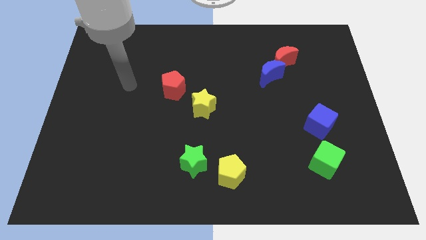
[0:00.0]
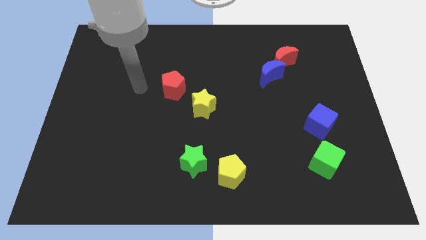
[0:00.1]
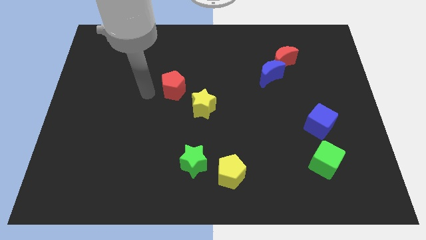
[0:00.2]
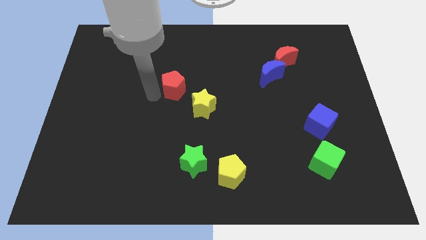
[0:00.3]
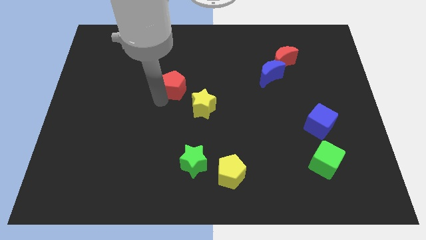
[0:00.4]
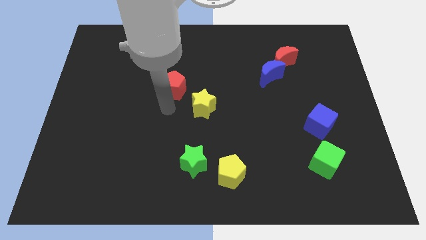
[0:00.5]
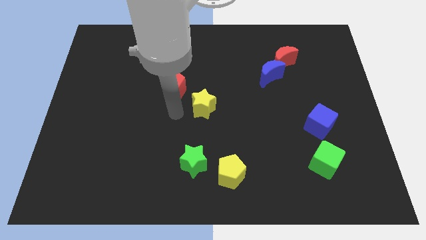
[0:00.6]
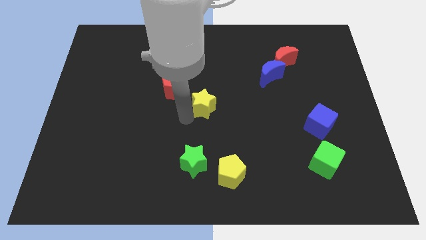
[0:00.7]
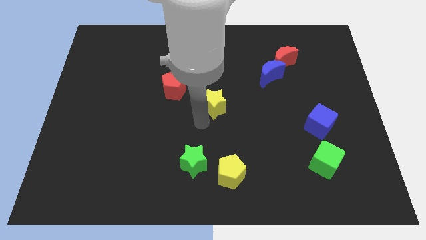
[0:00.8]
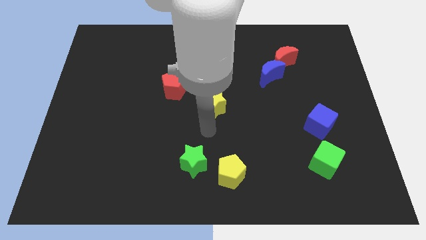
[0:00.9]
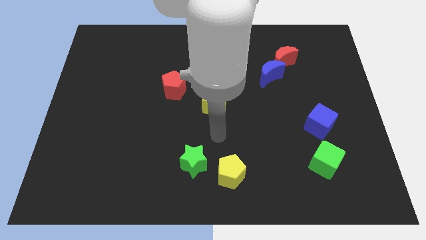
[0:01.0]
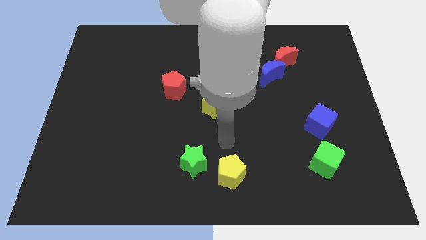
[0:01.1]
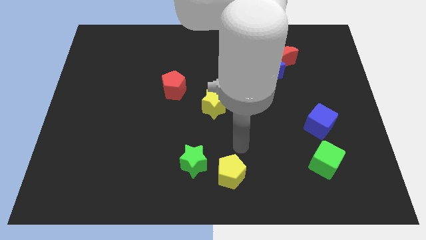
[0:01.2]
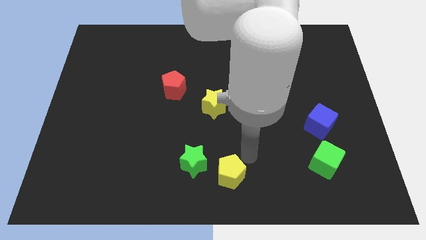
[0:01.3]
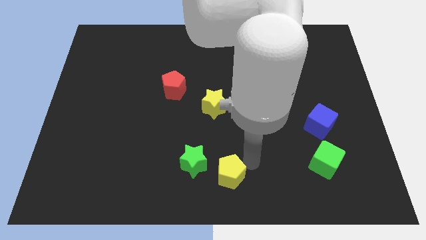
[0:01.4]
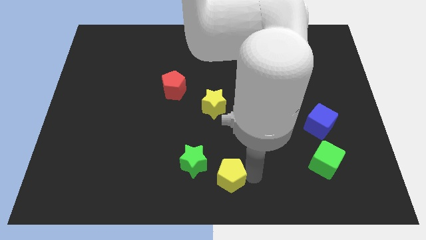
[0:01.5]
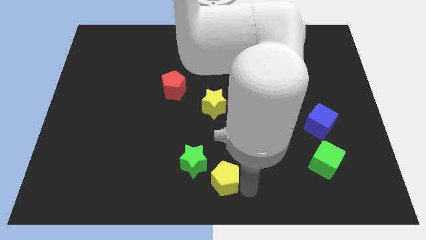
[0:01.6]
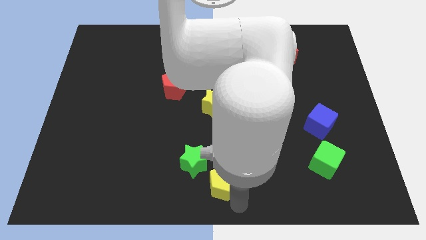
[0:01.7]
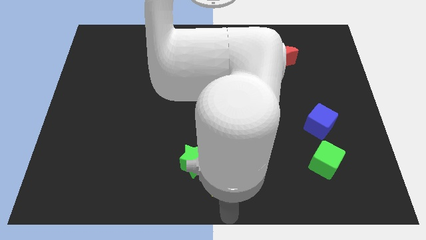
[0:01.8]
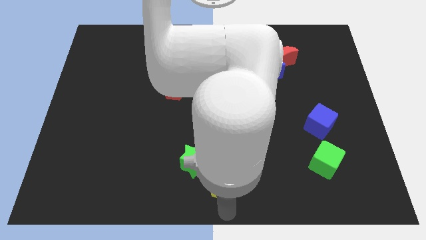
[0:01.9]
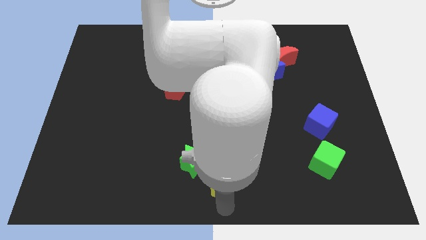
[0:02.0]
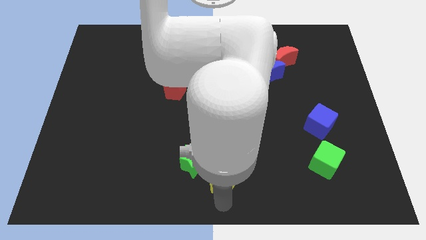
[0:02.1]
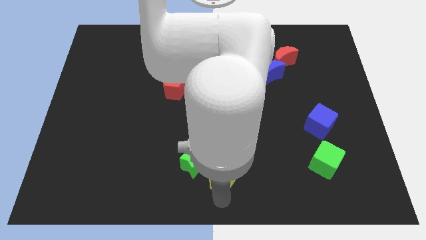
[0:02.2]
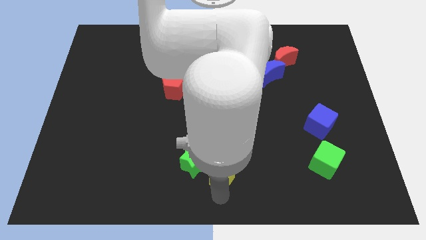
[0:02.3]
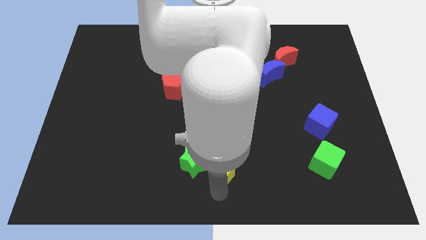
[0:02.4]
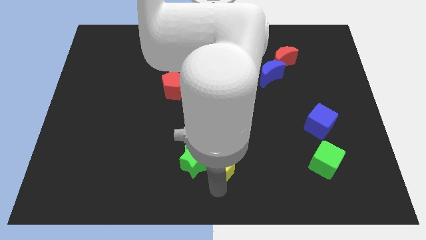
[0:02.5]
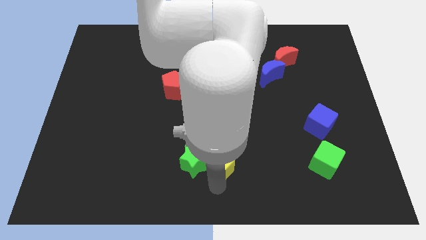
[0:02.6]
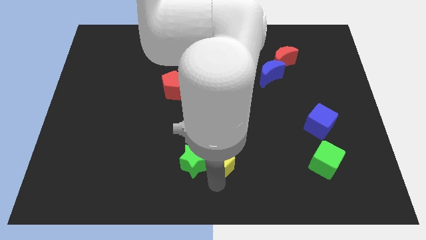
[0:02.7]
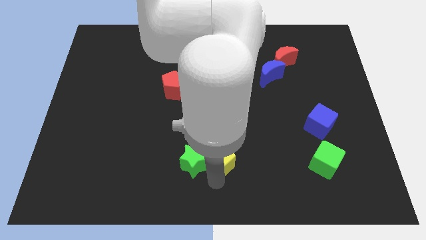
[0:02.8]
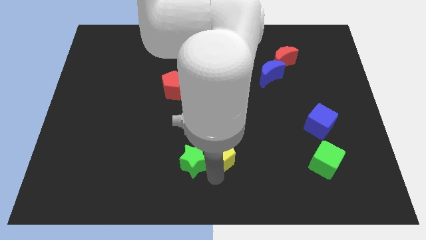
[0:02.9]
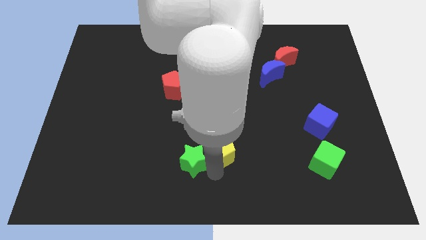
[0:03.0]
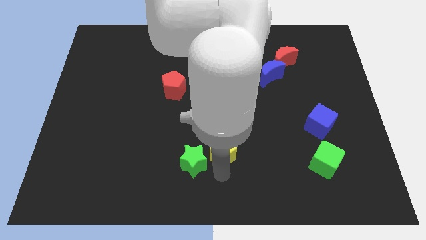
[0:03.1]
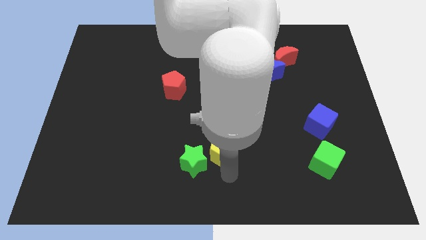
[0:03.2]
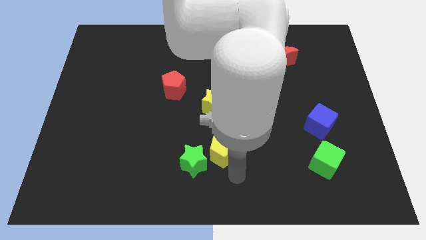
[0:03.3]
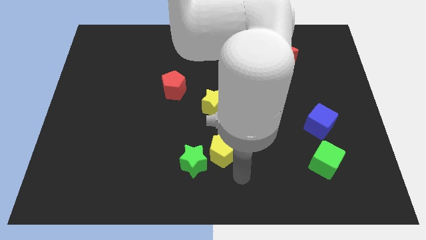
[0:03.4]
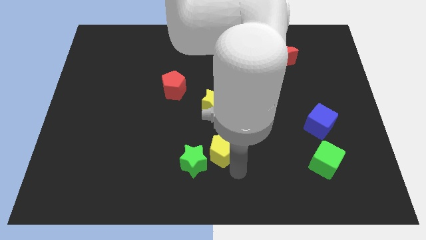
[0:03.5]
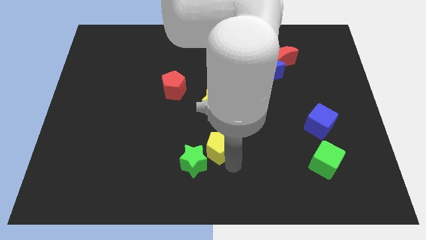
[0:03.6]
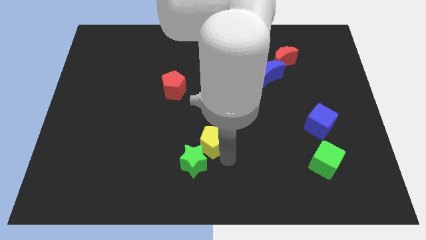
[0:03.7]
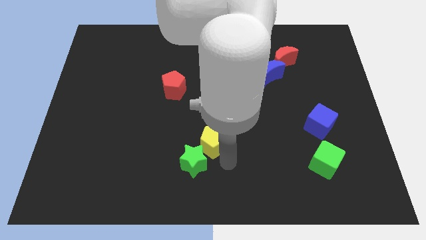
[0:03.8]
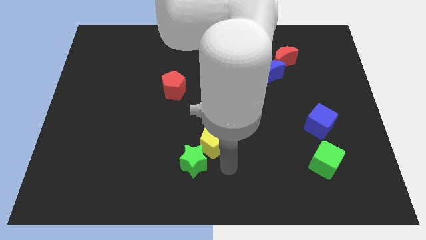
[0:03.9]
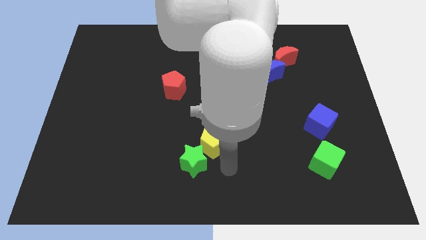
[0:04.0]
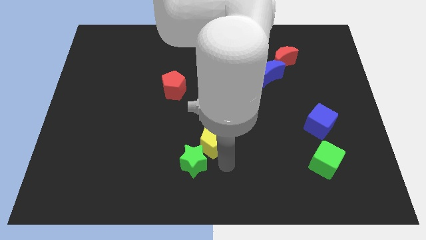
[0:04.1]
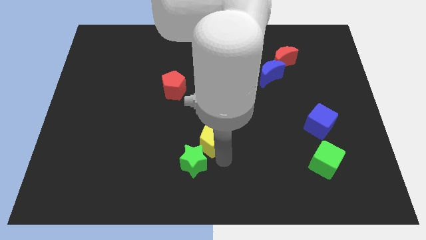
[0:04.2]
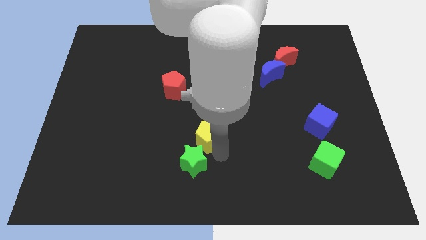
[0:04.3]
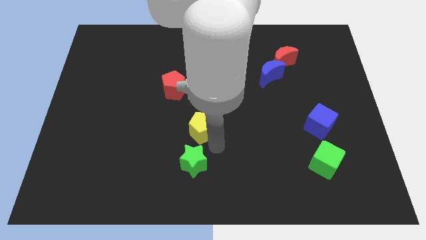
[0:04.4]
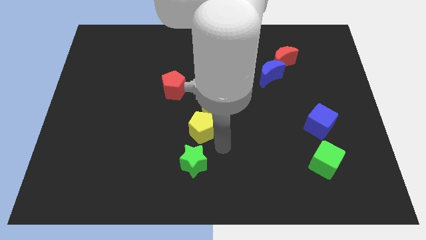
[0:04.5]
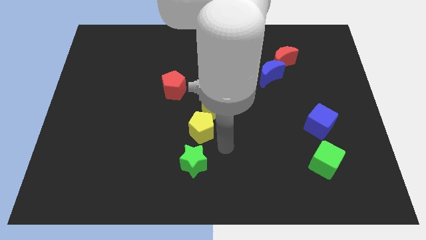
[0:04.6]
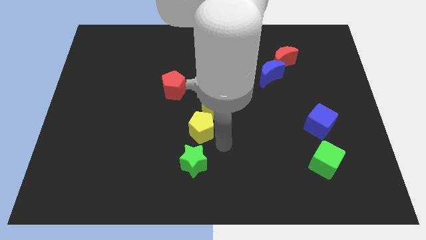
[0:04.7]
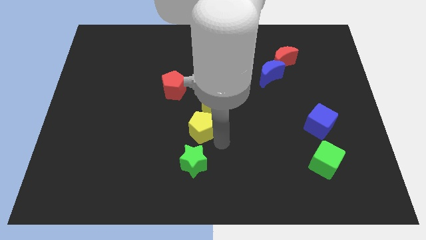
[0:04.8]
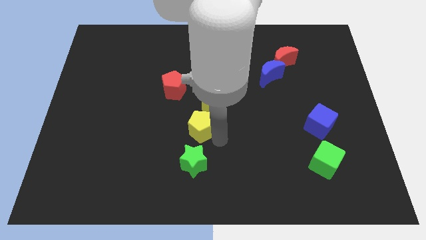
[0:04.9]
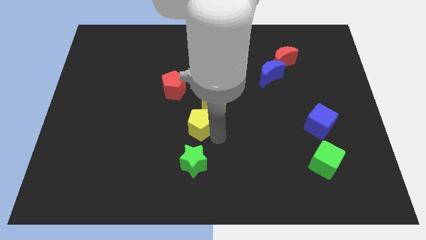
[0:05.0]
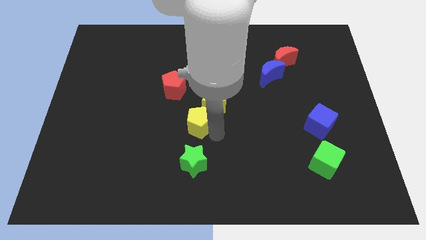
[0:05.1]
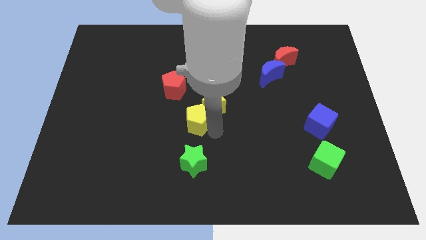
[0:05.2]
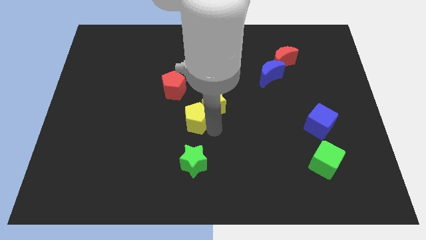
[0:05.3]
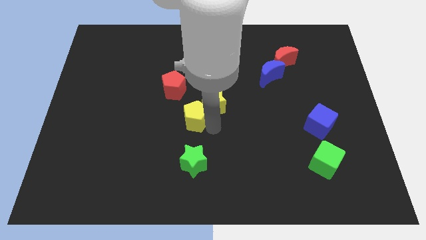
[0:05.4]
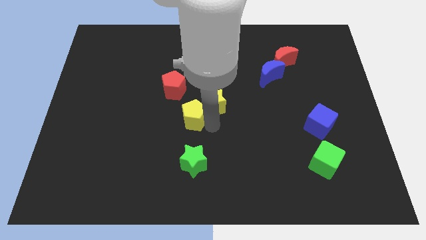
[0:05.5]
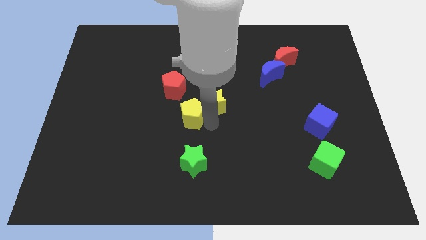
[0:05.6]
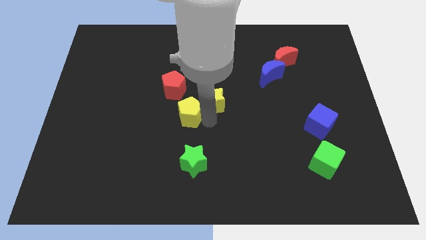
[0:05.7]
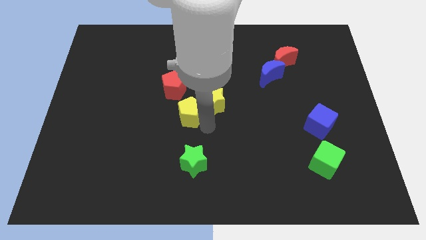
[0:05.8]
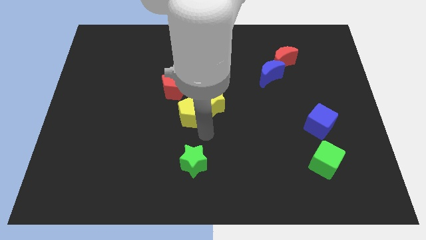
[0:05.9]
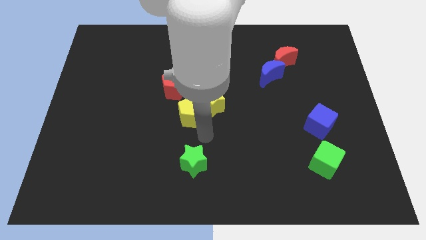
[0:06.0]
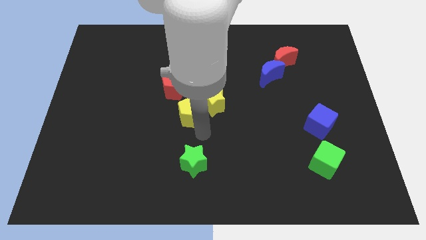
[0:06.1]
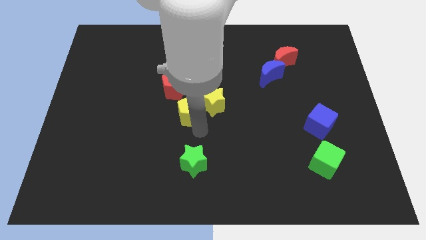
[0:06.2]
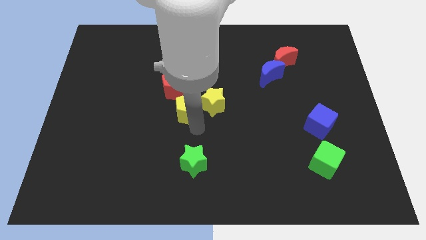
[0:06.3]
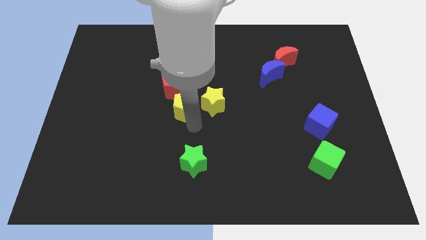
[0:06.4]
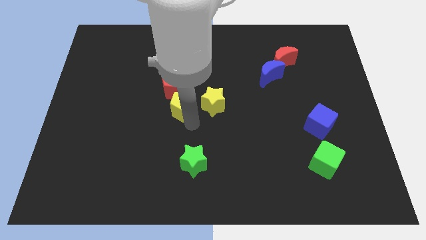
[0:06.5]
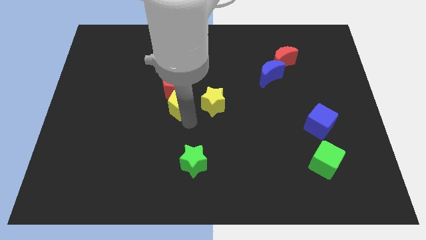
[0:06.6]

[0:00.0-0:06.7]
put the yellow pentagon close to the red pentagon

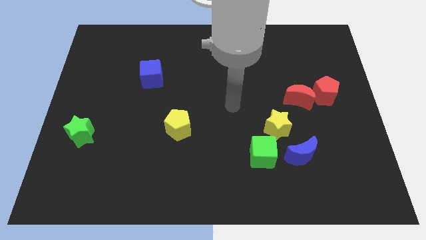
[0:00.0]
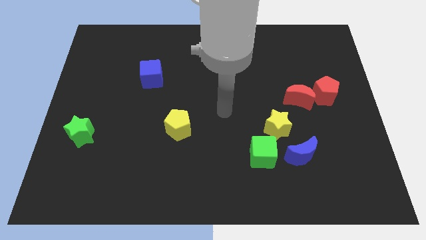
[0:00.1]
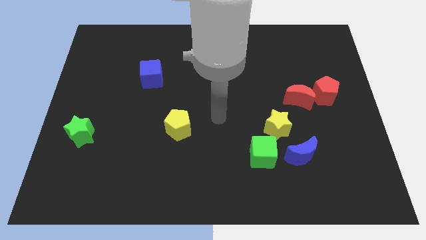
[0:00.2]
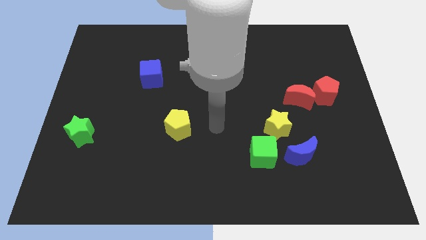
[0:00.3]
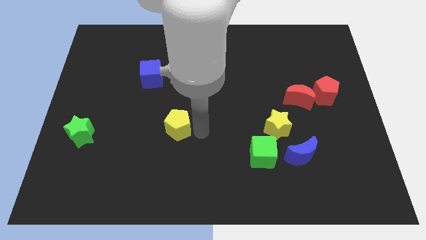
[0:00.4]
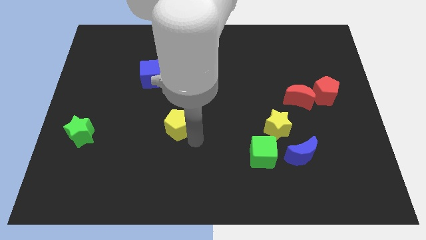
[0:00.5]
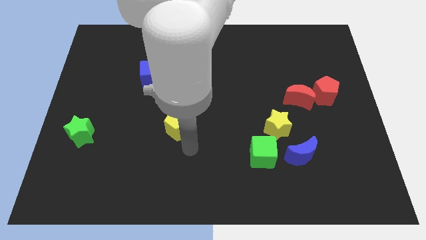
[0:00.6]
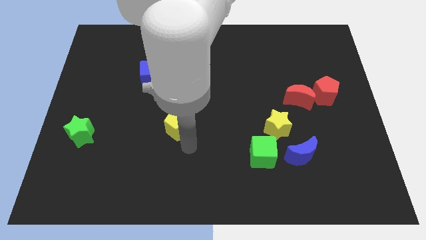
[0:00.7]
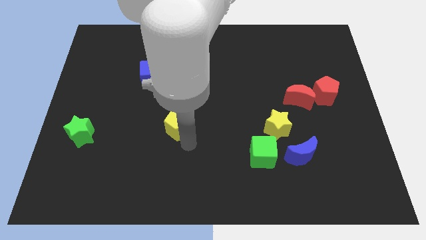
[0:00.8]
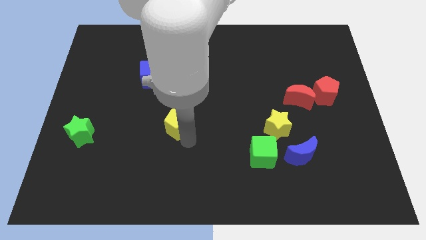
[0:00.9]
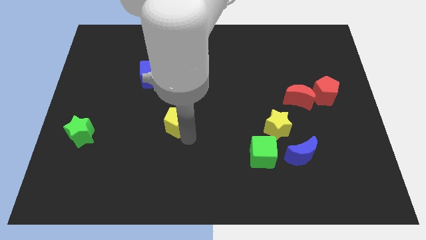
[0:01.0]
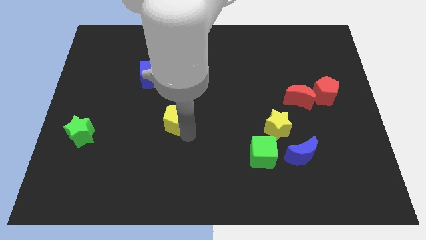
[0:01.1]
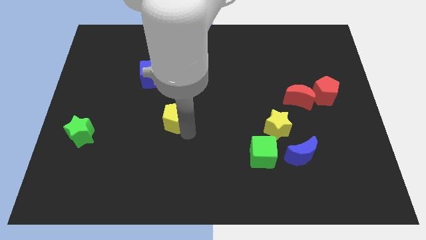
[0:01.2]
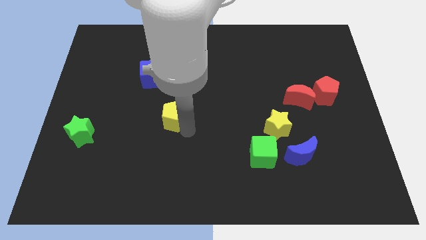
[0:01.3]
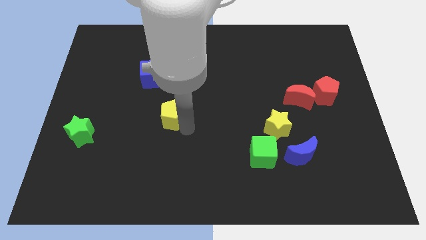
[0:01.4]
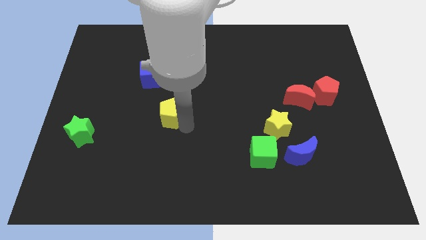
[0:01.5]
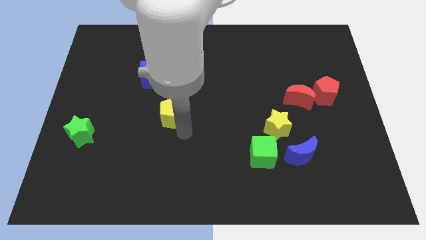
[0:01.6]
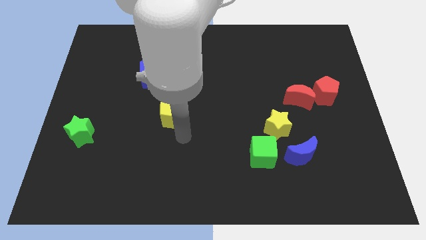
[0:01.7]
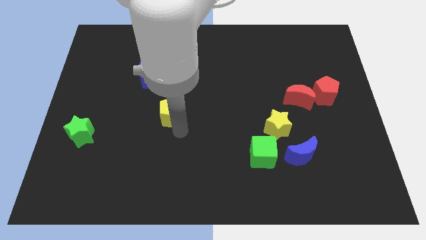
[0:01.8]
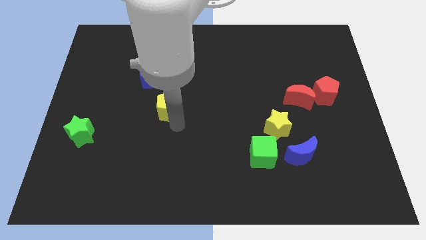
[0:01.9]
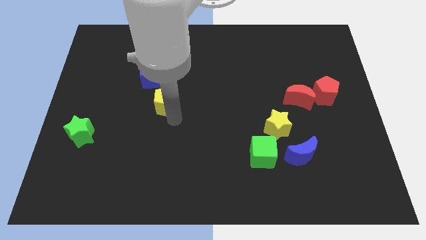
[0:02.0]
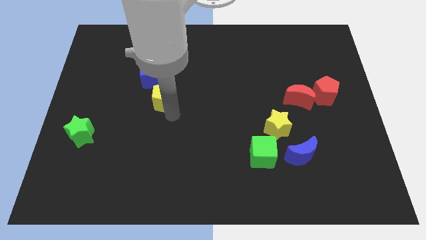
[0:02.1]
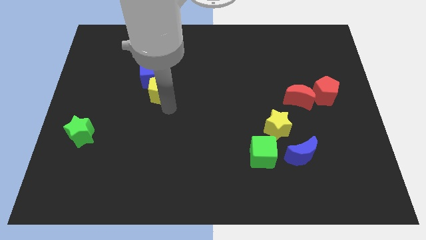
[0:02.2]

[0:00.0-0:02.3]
slide the yellow pentagon towards the blue cube
